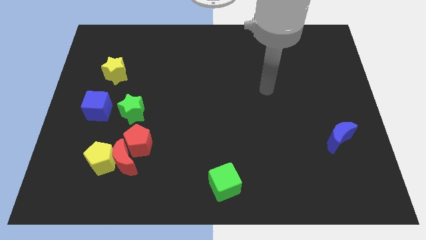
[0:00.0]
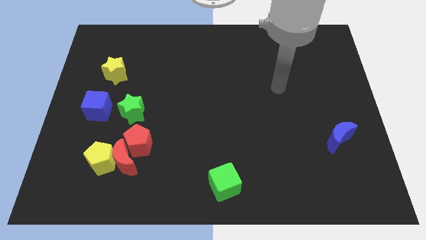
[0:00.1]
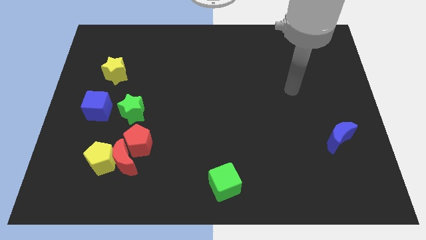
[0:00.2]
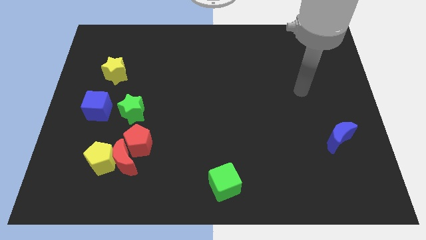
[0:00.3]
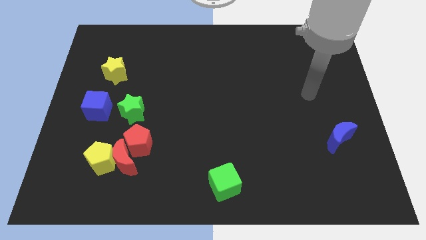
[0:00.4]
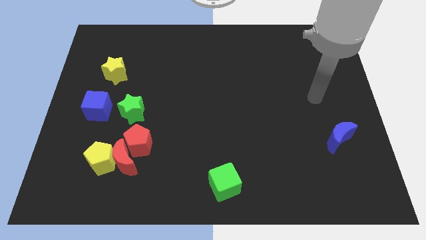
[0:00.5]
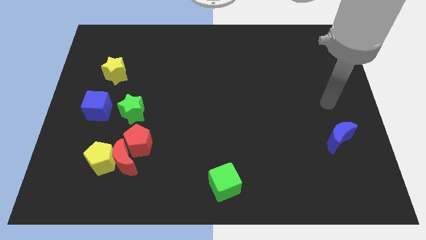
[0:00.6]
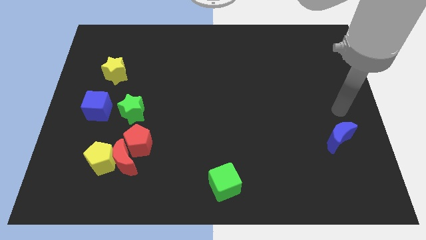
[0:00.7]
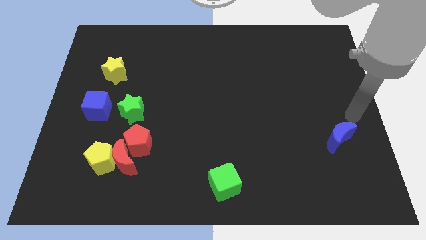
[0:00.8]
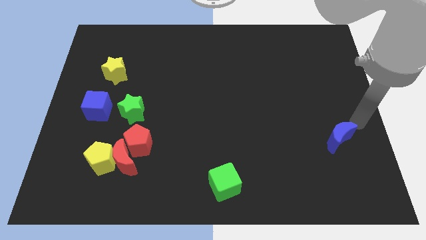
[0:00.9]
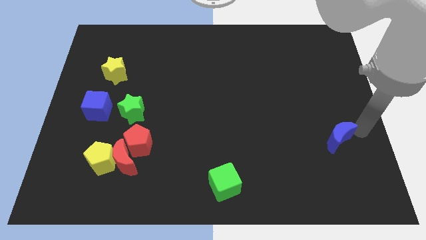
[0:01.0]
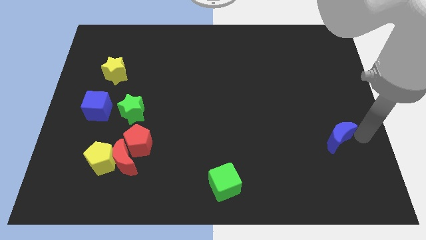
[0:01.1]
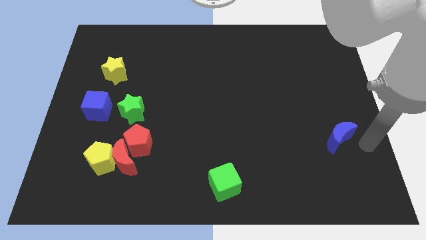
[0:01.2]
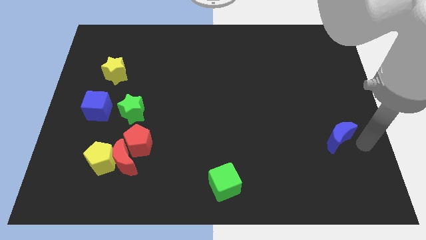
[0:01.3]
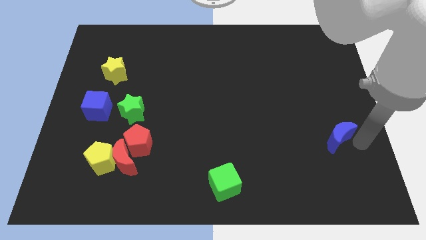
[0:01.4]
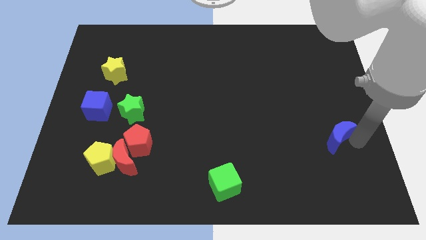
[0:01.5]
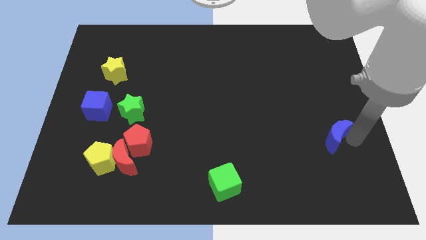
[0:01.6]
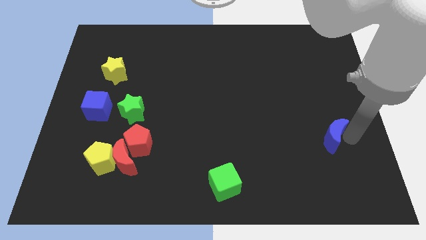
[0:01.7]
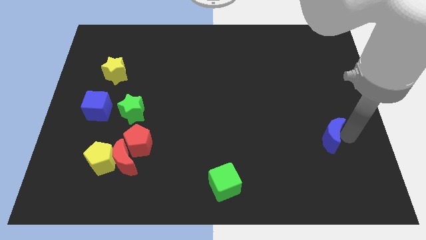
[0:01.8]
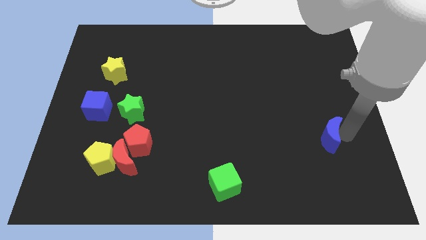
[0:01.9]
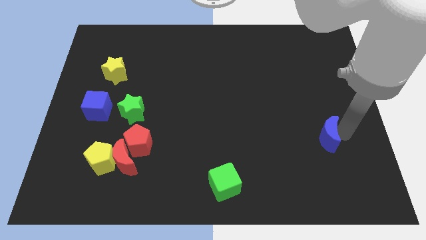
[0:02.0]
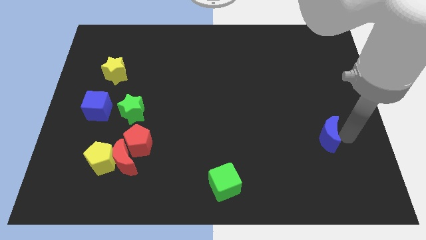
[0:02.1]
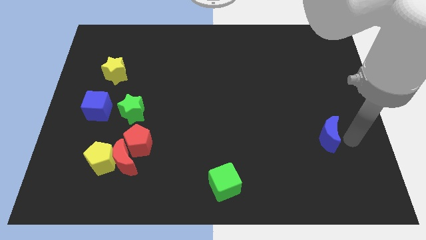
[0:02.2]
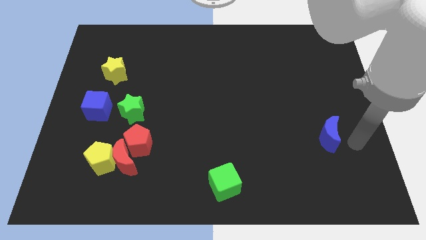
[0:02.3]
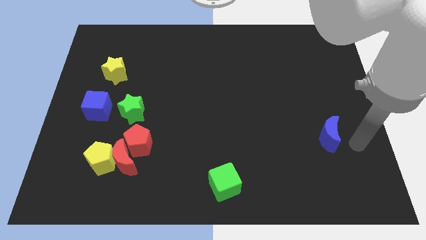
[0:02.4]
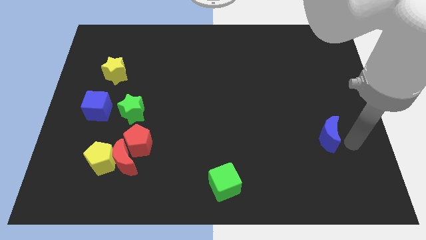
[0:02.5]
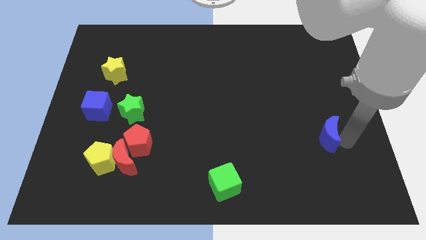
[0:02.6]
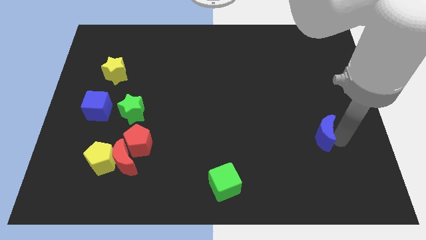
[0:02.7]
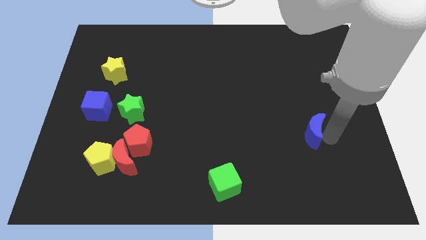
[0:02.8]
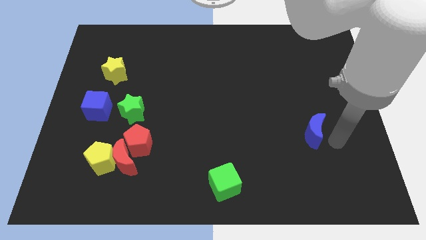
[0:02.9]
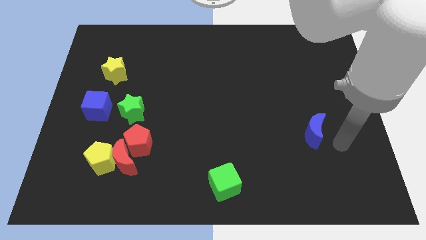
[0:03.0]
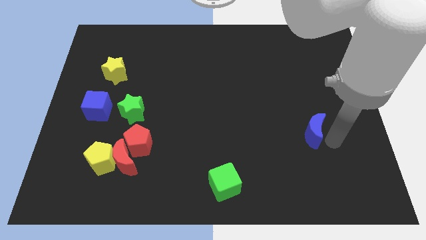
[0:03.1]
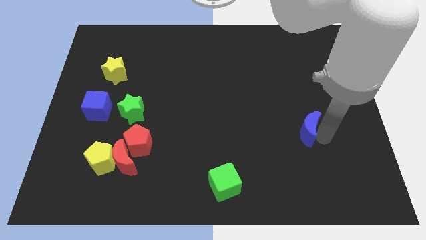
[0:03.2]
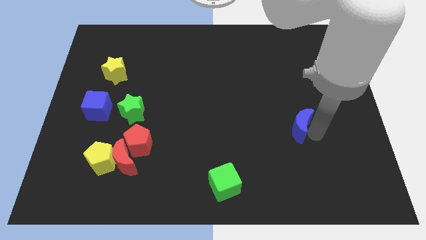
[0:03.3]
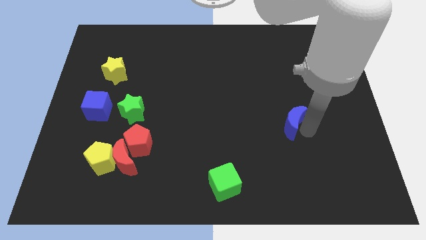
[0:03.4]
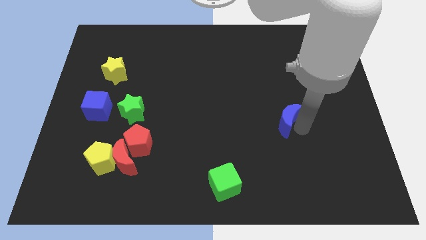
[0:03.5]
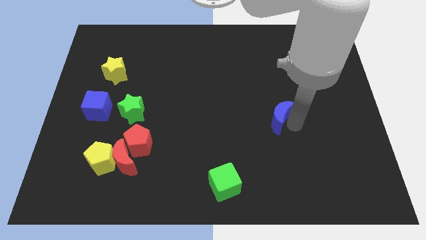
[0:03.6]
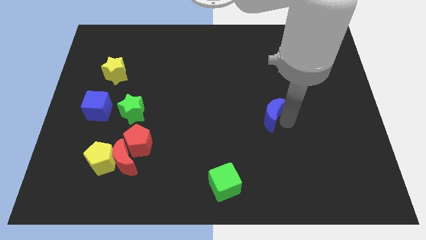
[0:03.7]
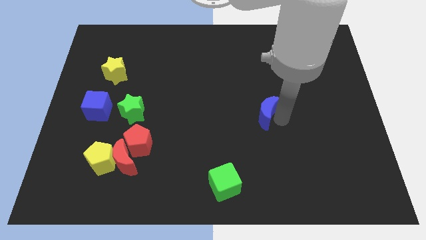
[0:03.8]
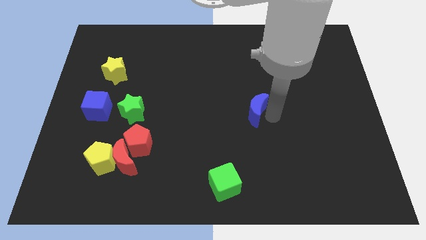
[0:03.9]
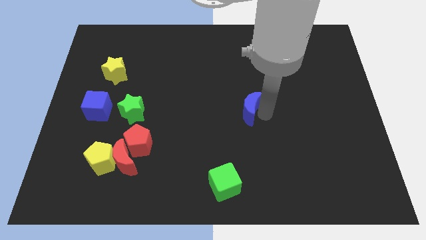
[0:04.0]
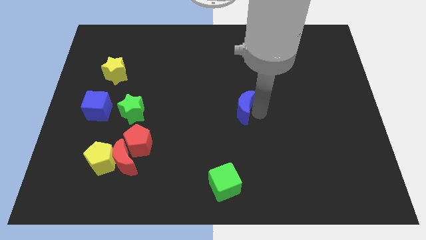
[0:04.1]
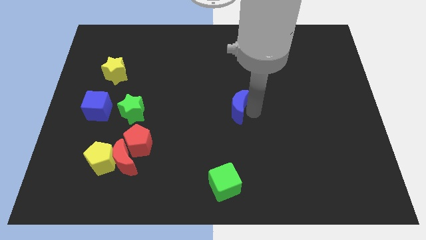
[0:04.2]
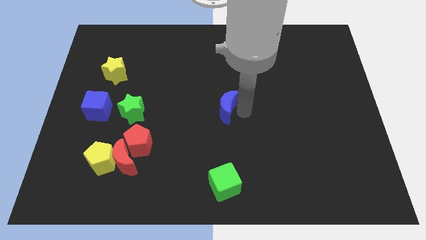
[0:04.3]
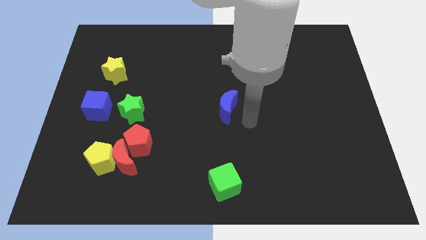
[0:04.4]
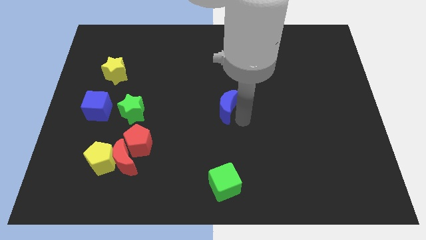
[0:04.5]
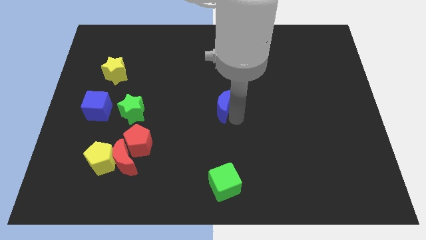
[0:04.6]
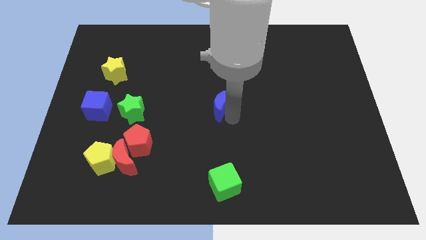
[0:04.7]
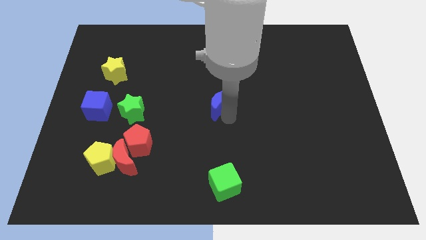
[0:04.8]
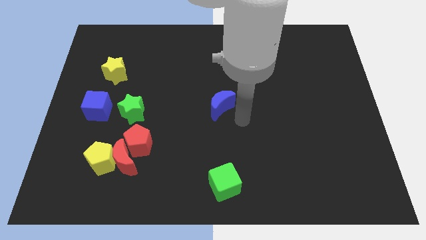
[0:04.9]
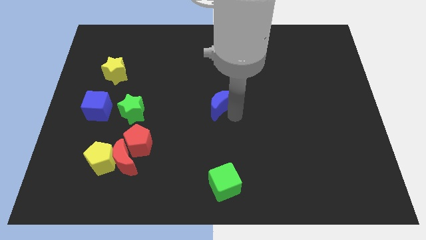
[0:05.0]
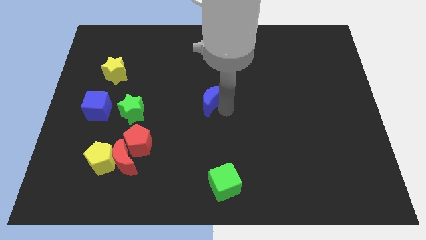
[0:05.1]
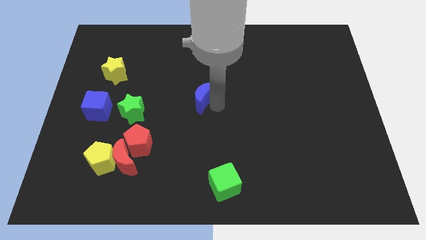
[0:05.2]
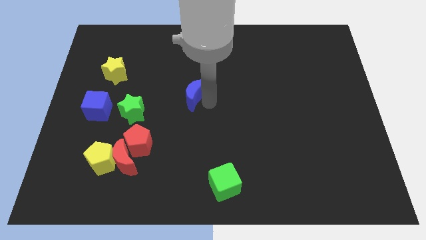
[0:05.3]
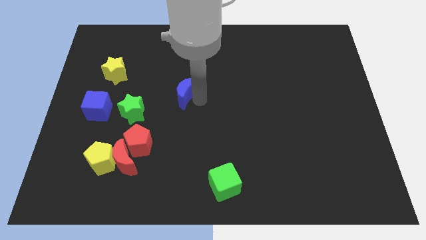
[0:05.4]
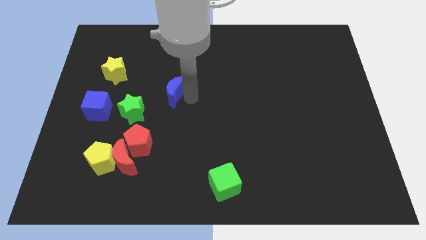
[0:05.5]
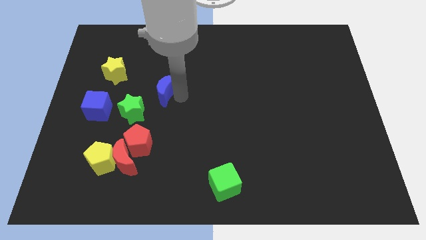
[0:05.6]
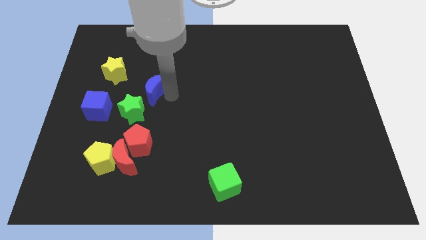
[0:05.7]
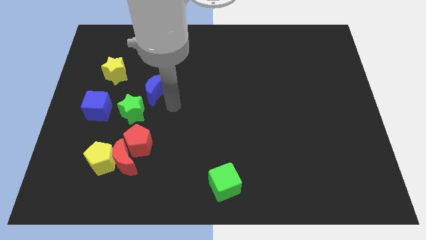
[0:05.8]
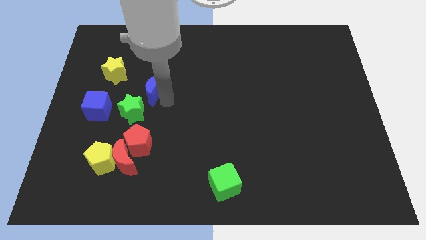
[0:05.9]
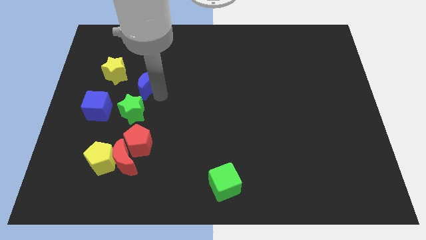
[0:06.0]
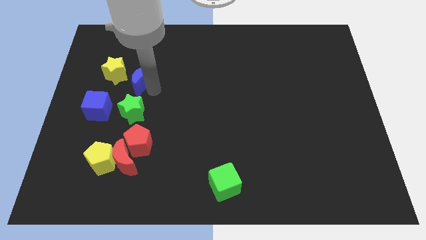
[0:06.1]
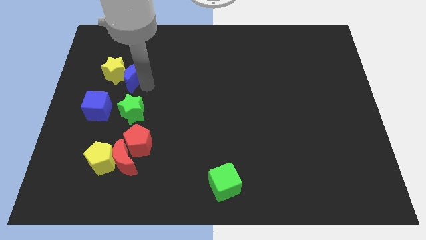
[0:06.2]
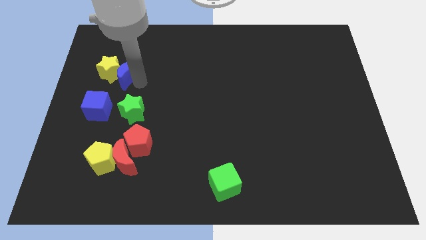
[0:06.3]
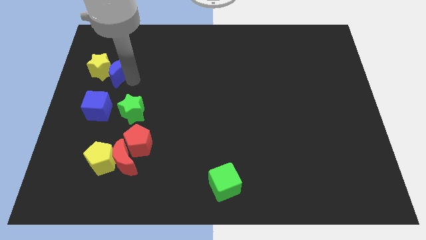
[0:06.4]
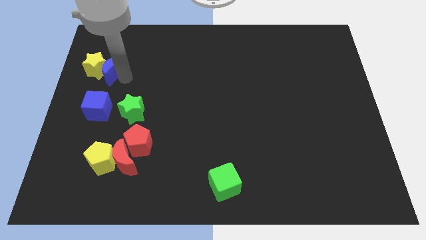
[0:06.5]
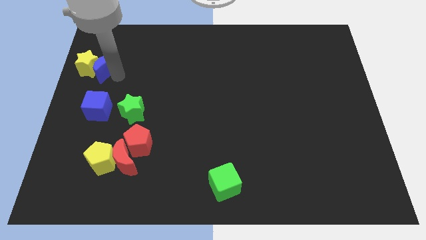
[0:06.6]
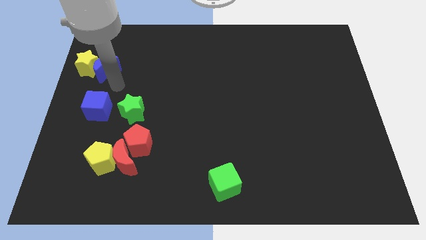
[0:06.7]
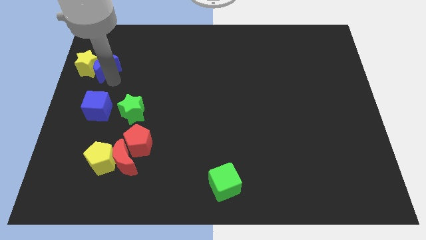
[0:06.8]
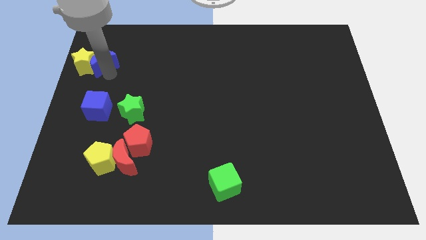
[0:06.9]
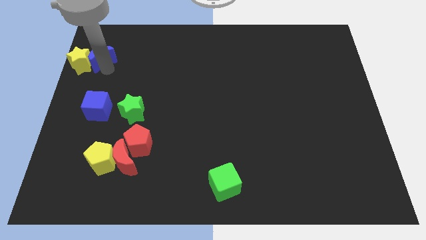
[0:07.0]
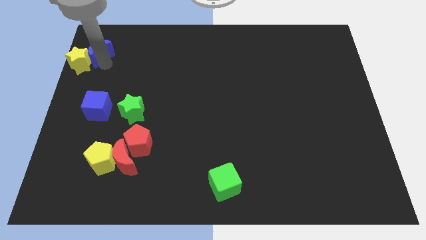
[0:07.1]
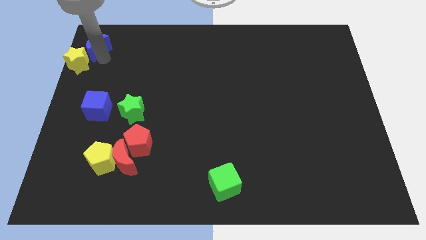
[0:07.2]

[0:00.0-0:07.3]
move the blue moon to the top left
